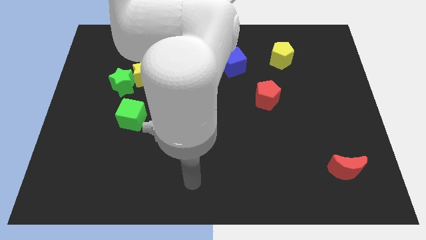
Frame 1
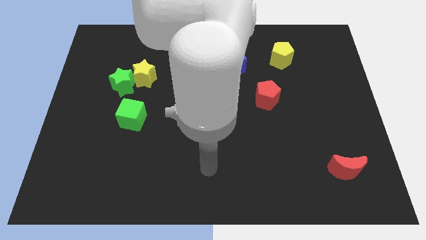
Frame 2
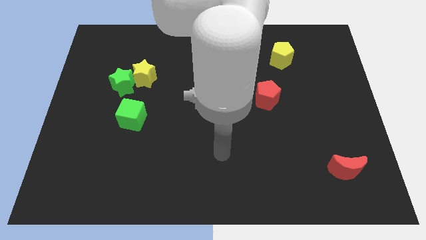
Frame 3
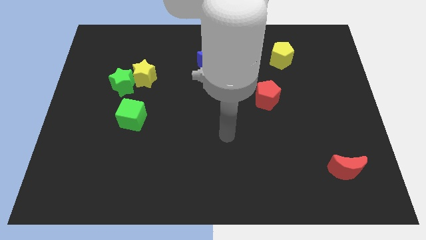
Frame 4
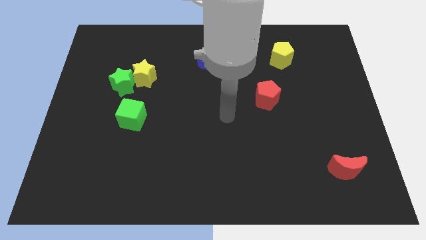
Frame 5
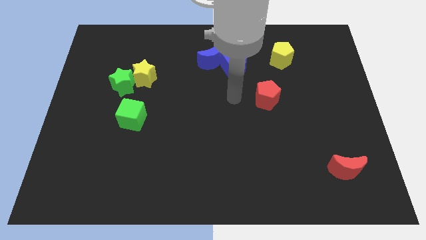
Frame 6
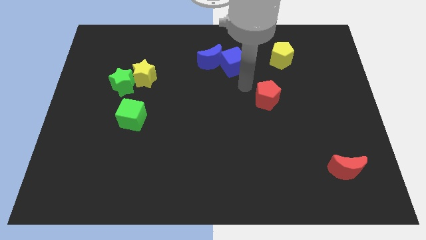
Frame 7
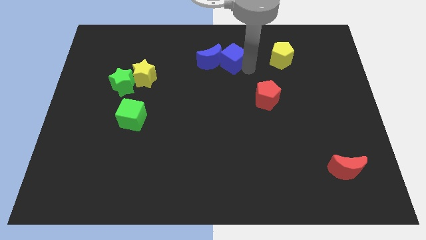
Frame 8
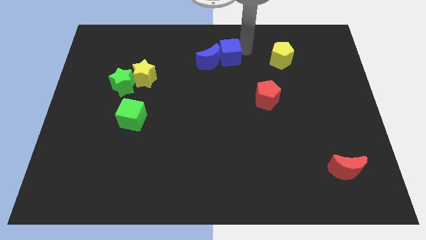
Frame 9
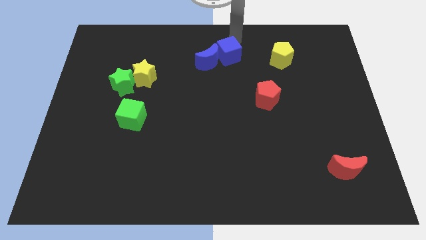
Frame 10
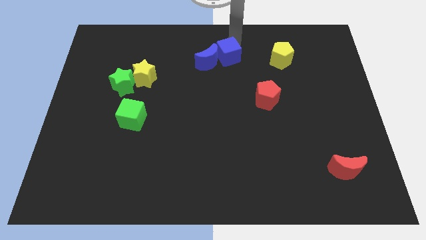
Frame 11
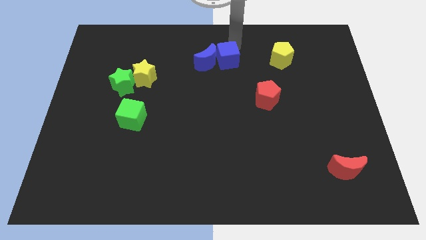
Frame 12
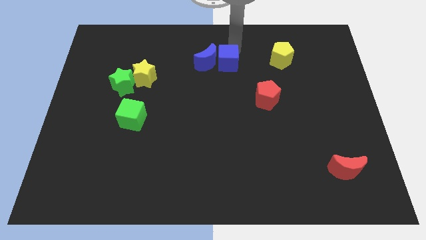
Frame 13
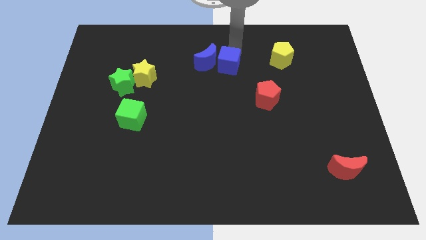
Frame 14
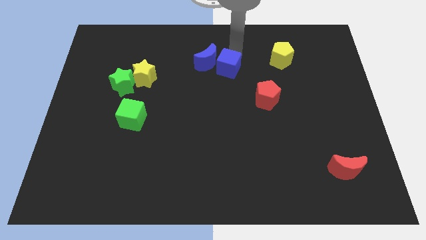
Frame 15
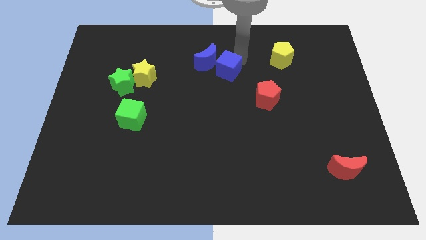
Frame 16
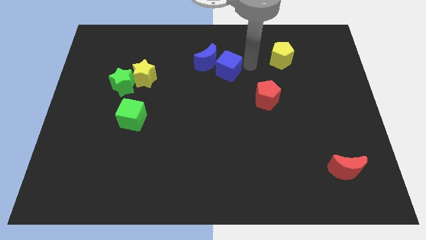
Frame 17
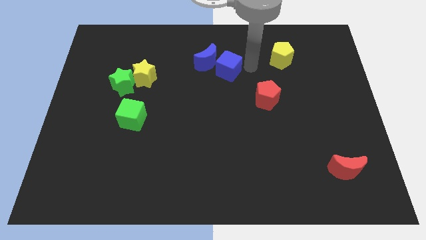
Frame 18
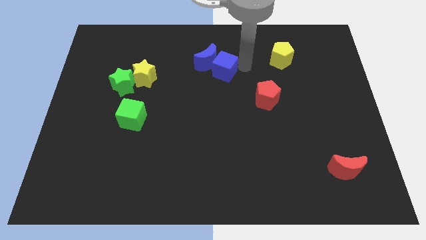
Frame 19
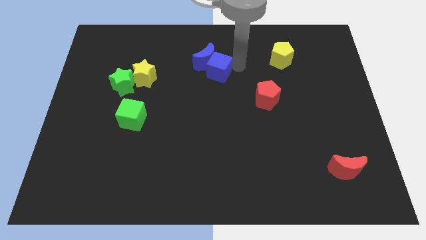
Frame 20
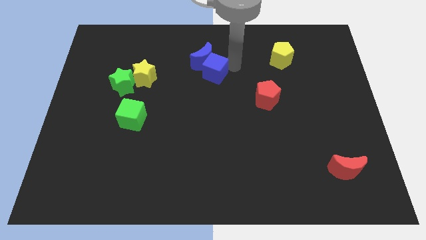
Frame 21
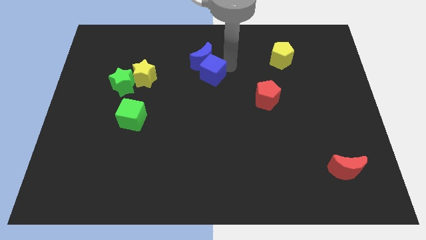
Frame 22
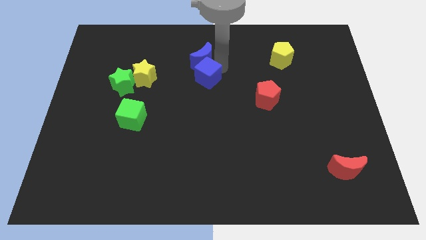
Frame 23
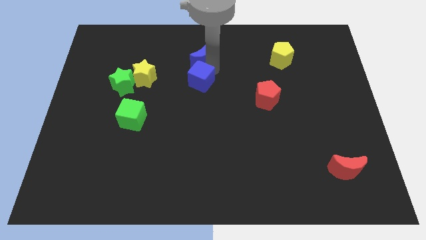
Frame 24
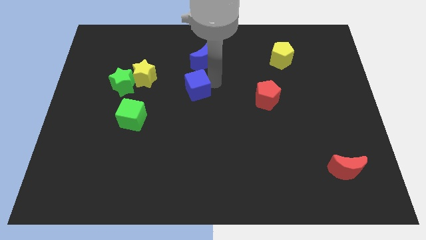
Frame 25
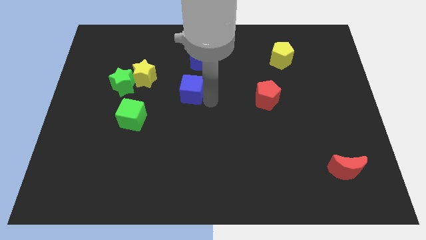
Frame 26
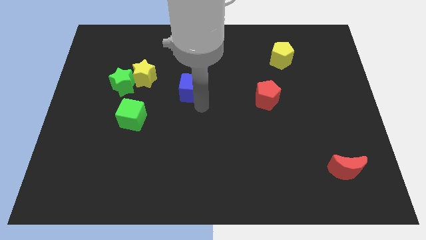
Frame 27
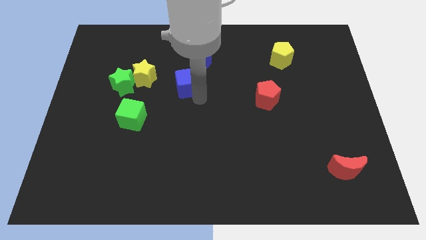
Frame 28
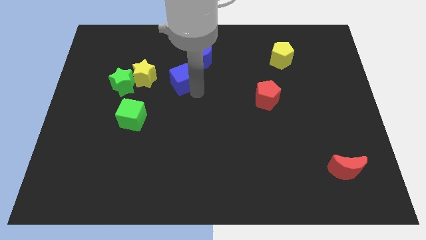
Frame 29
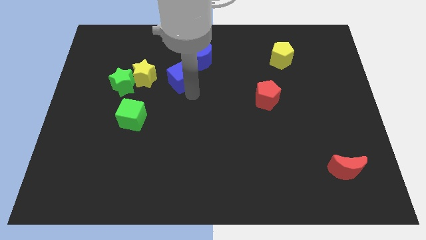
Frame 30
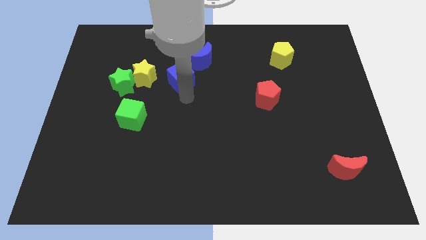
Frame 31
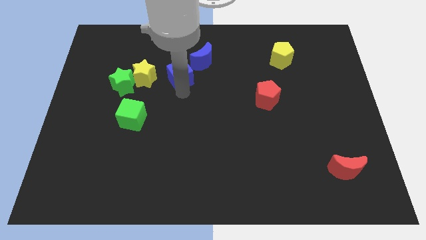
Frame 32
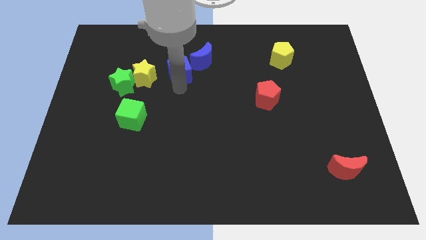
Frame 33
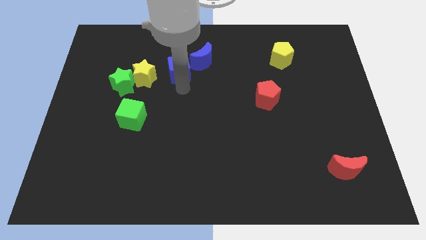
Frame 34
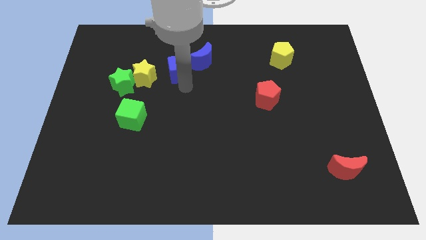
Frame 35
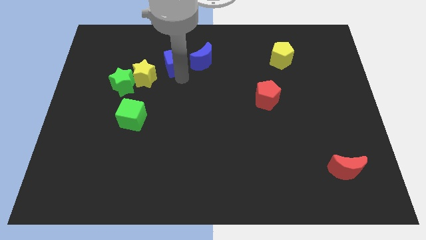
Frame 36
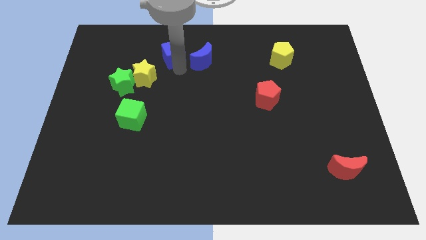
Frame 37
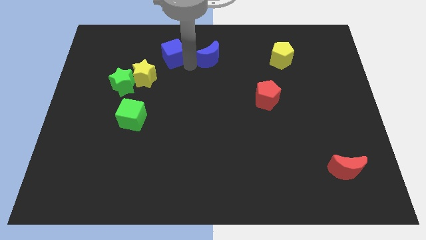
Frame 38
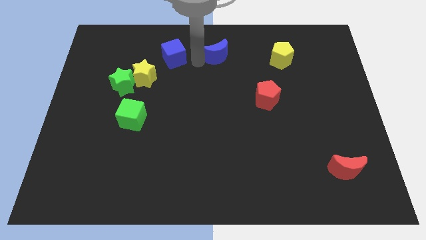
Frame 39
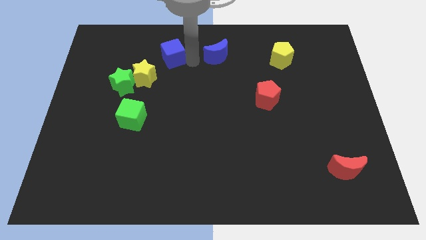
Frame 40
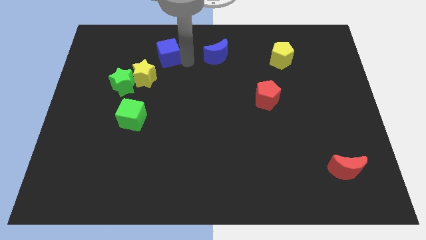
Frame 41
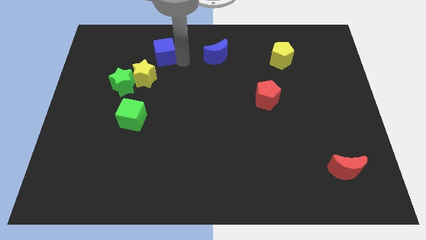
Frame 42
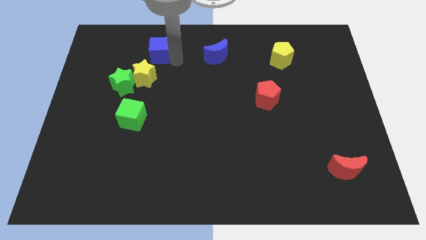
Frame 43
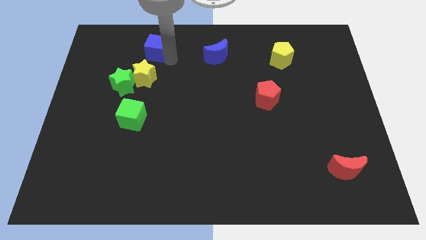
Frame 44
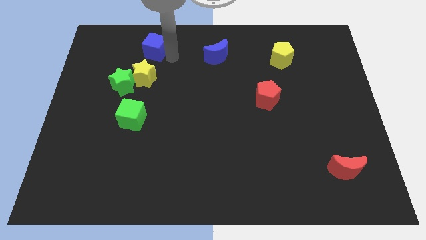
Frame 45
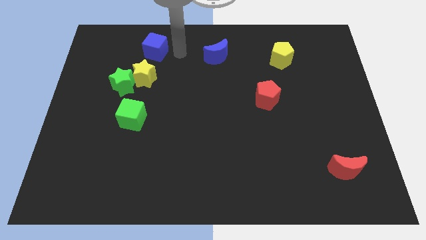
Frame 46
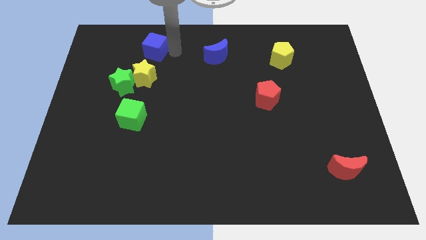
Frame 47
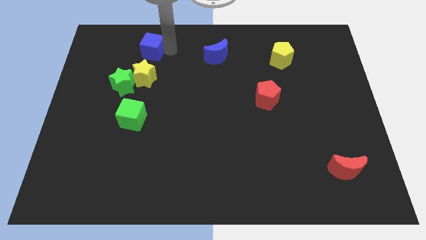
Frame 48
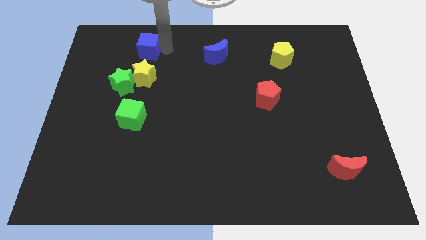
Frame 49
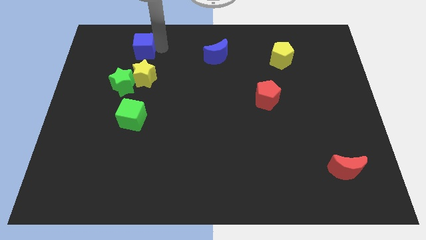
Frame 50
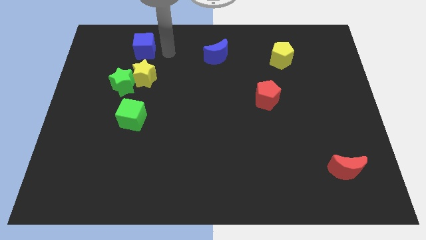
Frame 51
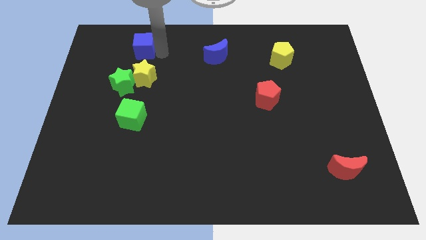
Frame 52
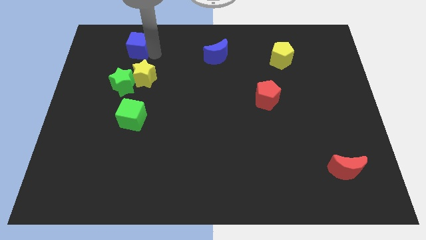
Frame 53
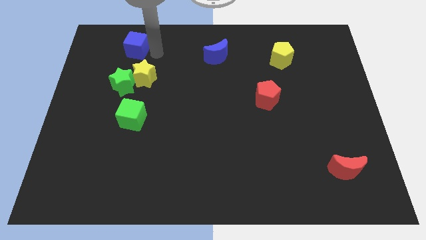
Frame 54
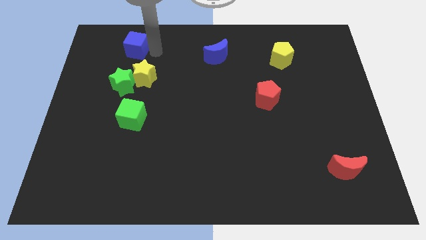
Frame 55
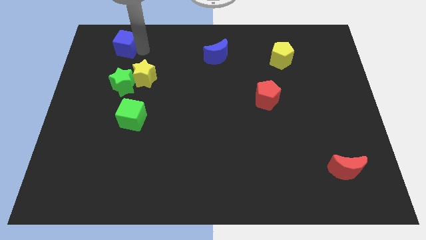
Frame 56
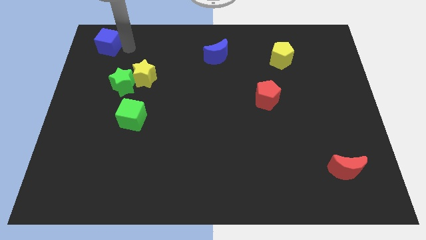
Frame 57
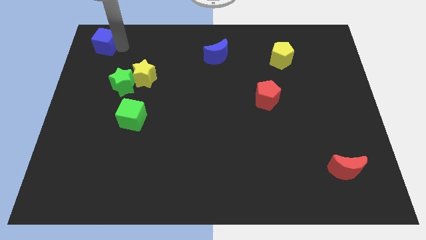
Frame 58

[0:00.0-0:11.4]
move the blue cube to the top left

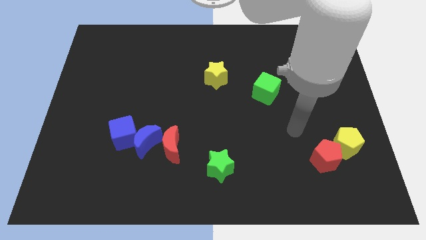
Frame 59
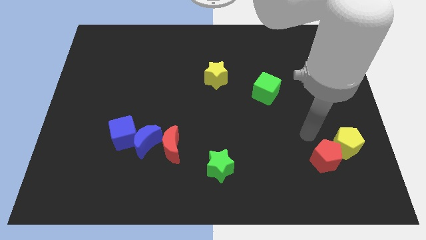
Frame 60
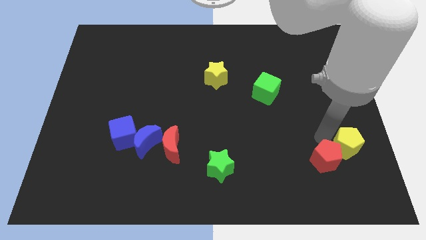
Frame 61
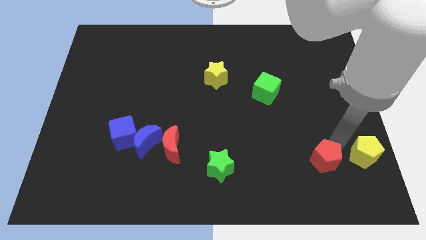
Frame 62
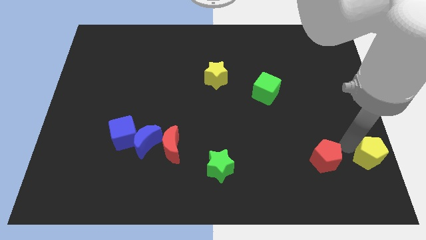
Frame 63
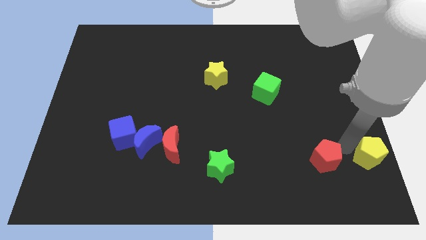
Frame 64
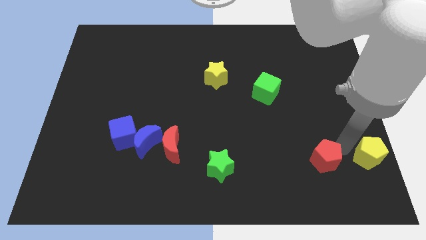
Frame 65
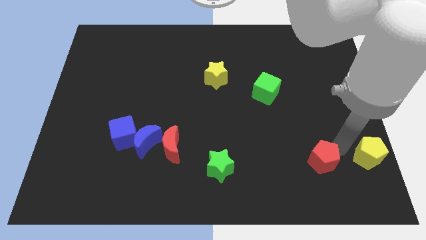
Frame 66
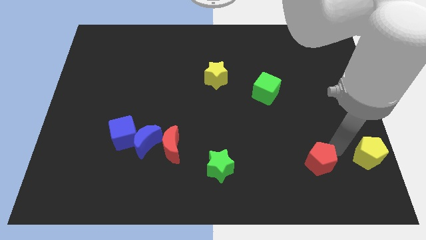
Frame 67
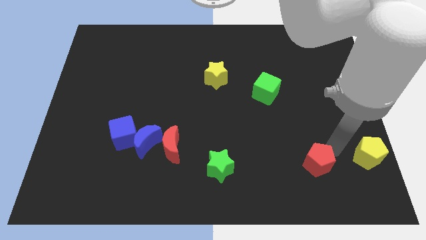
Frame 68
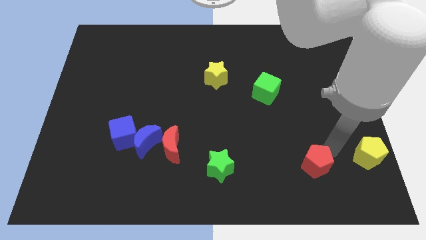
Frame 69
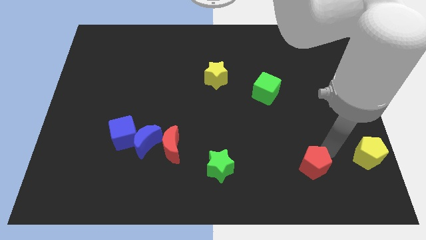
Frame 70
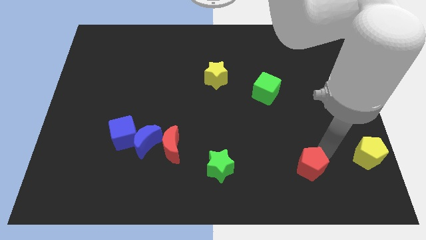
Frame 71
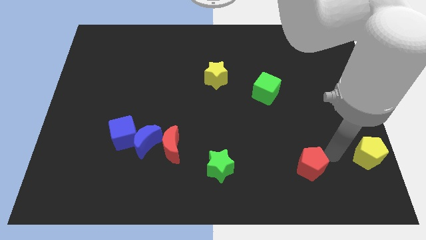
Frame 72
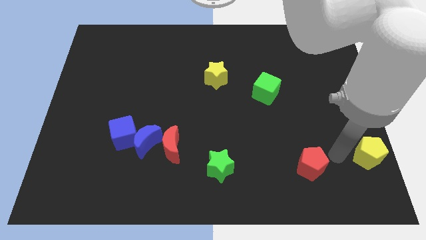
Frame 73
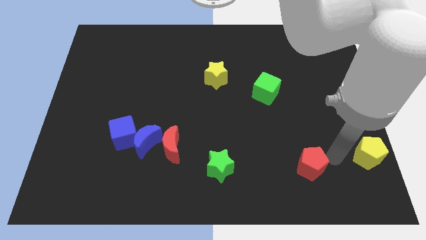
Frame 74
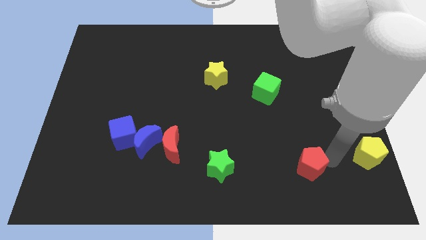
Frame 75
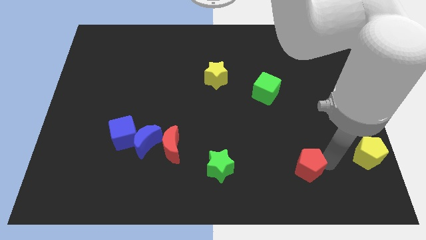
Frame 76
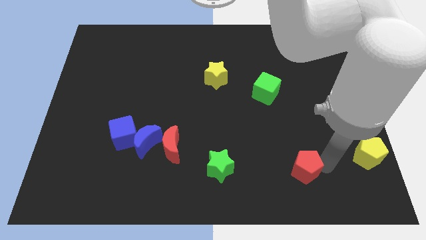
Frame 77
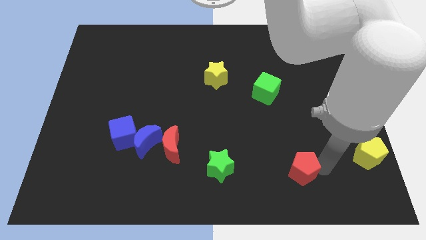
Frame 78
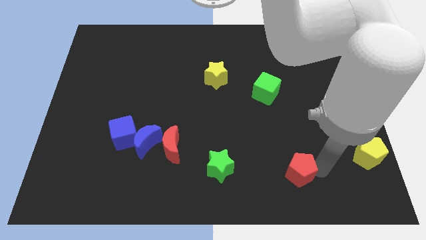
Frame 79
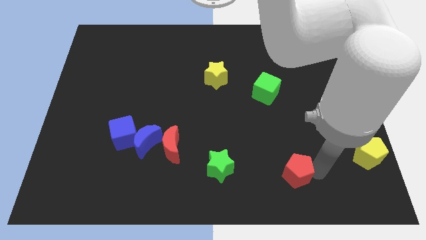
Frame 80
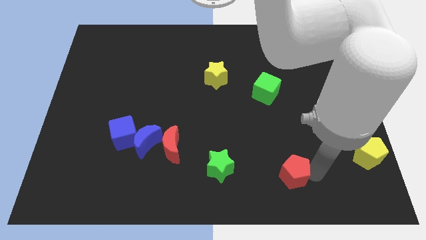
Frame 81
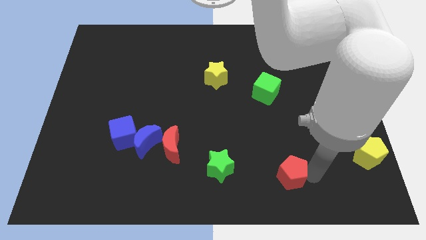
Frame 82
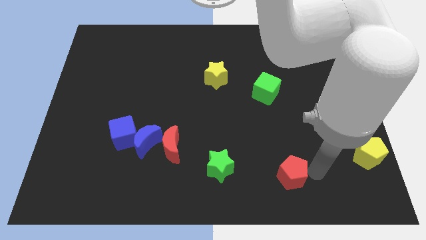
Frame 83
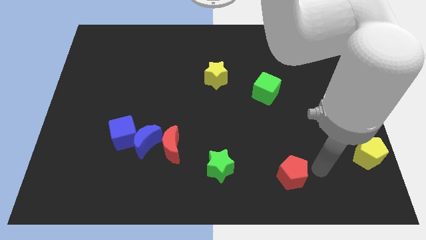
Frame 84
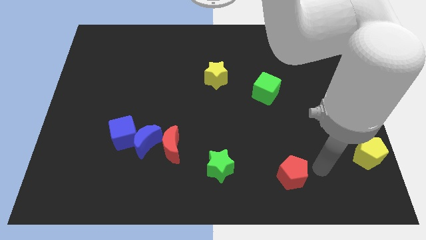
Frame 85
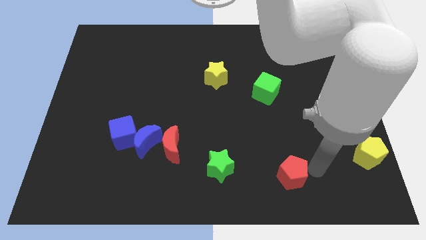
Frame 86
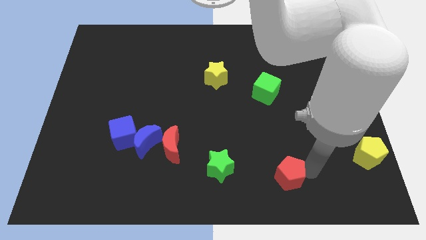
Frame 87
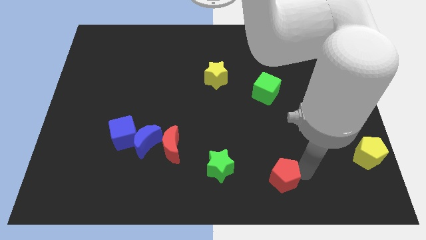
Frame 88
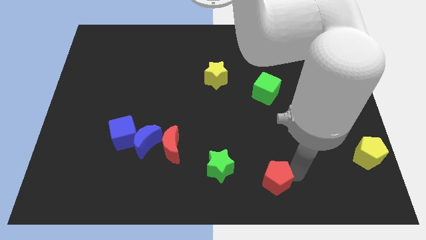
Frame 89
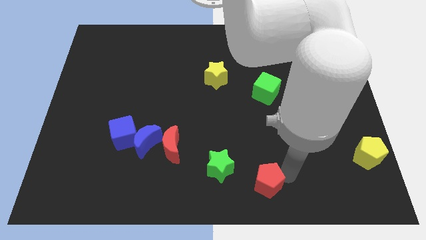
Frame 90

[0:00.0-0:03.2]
push the red pentagon to the bottom side
